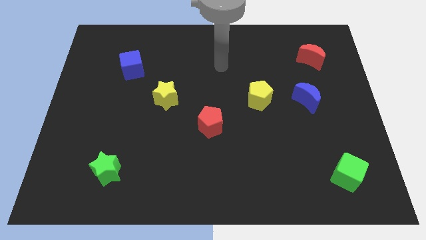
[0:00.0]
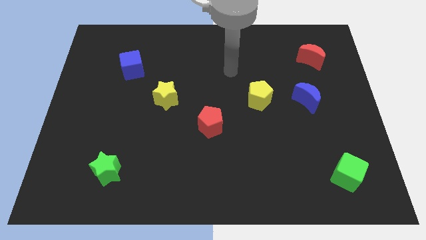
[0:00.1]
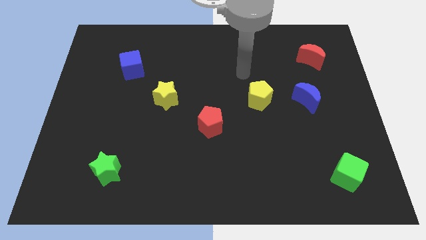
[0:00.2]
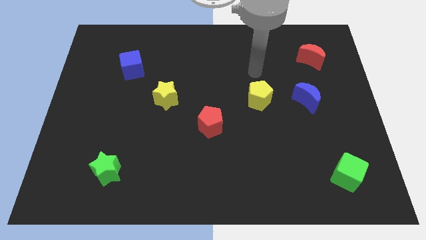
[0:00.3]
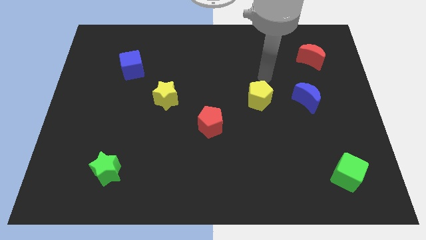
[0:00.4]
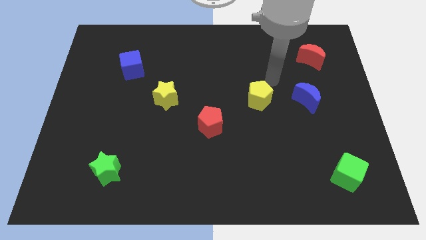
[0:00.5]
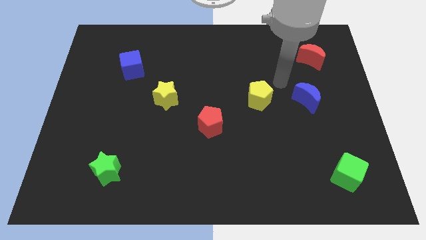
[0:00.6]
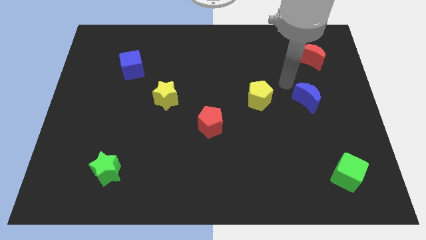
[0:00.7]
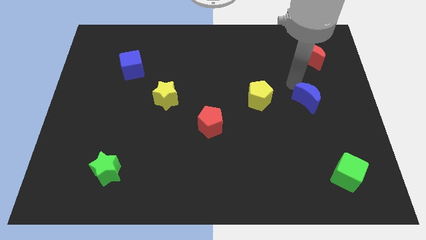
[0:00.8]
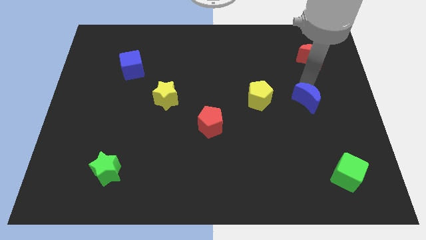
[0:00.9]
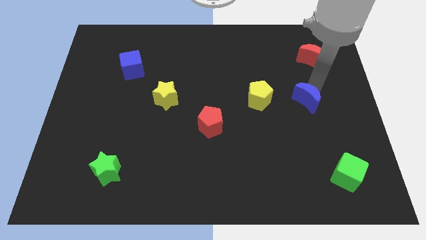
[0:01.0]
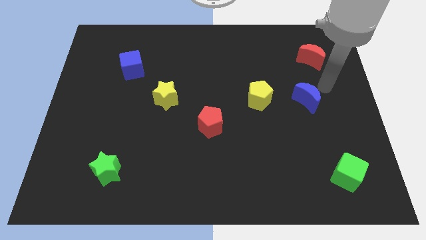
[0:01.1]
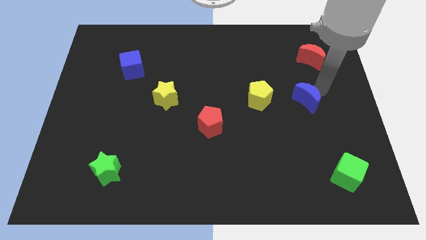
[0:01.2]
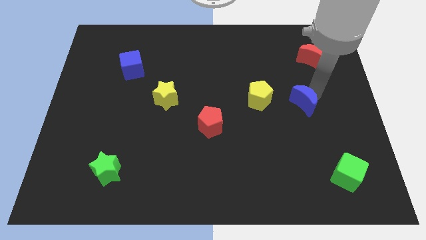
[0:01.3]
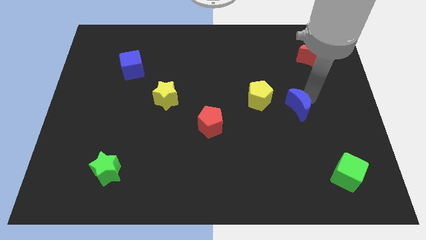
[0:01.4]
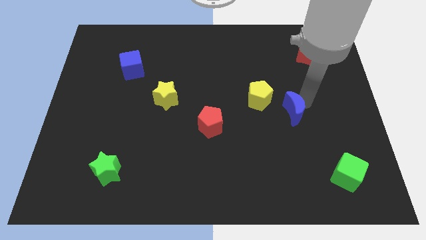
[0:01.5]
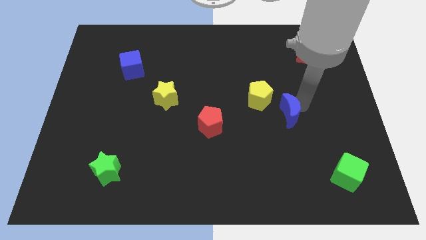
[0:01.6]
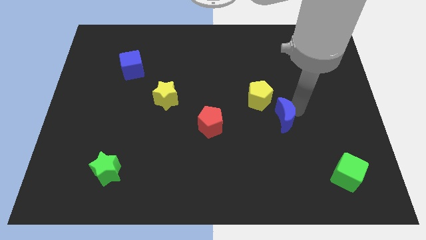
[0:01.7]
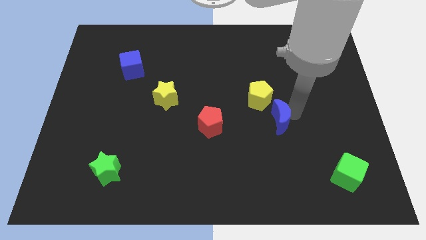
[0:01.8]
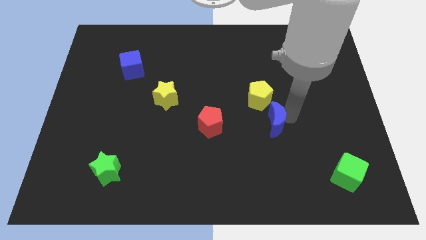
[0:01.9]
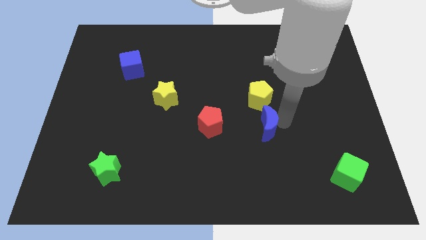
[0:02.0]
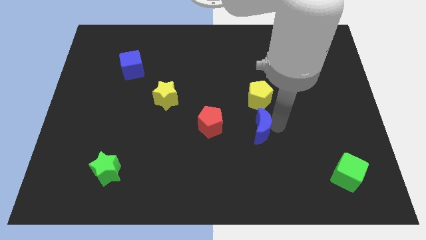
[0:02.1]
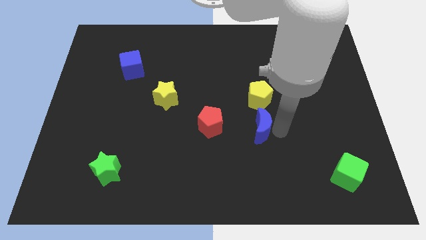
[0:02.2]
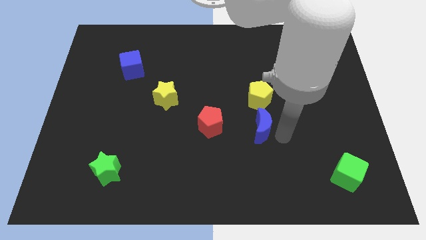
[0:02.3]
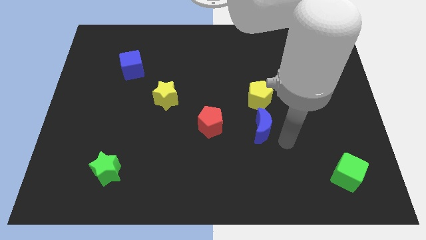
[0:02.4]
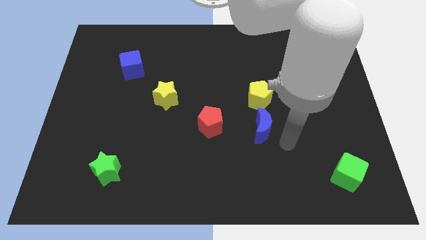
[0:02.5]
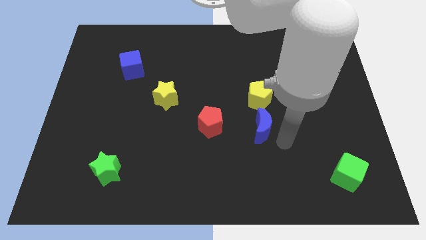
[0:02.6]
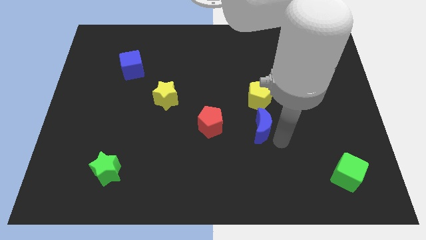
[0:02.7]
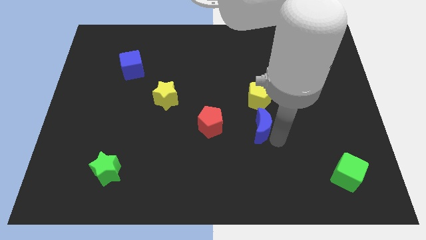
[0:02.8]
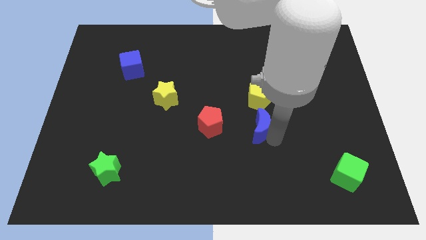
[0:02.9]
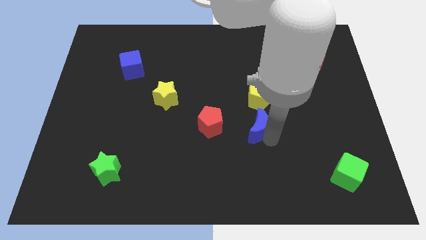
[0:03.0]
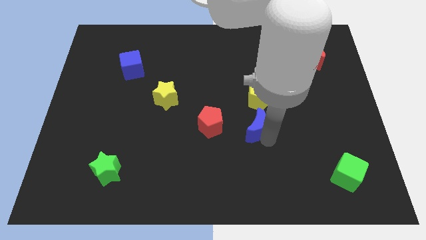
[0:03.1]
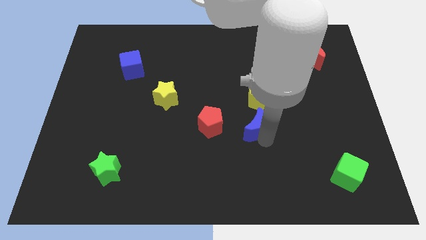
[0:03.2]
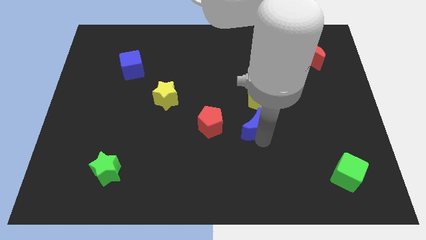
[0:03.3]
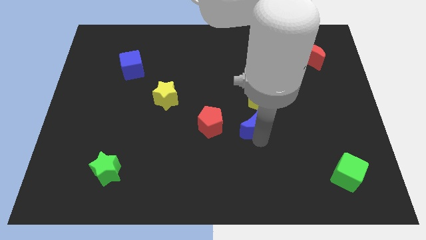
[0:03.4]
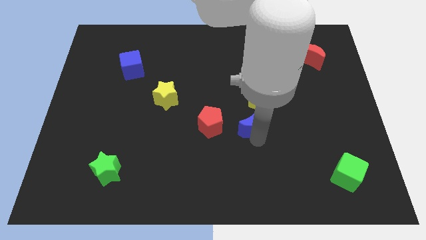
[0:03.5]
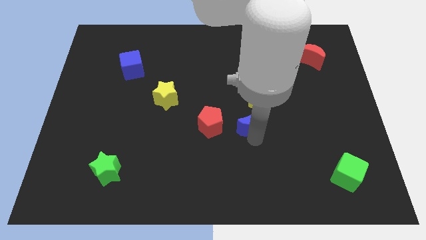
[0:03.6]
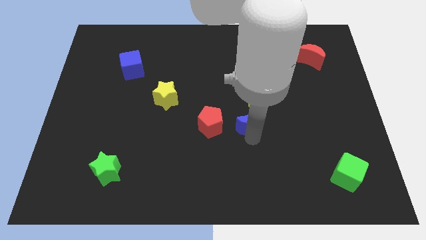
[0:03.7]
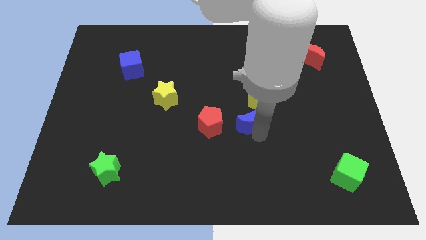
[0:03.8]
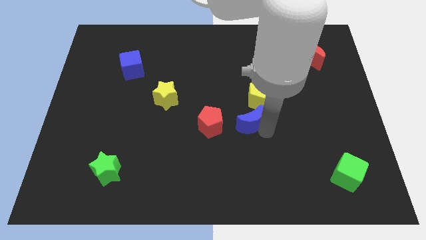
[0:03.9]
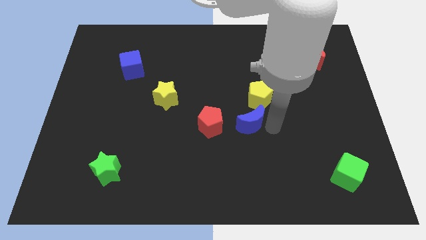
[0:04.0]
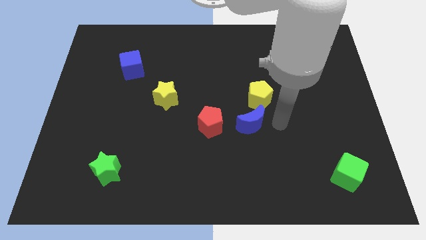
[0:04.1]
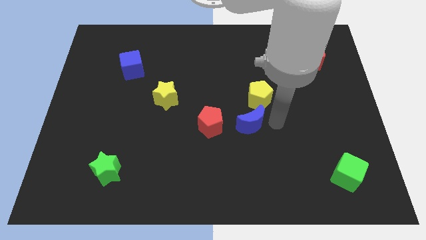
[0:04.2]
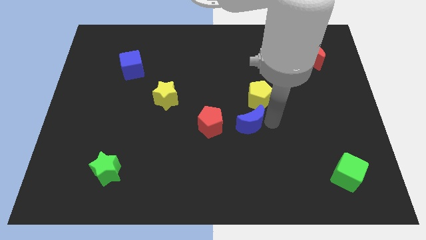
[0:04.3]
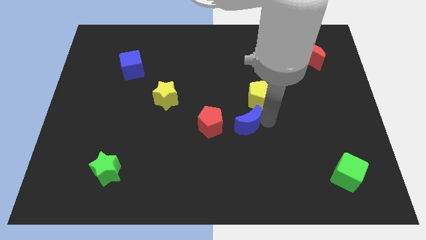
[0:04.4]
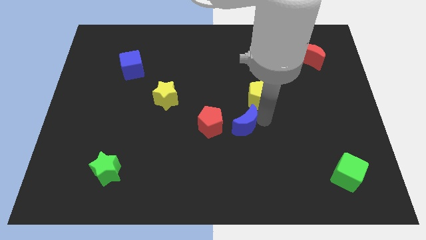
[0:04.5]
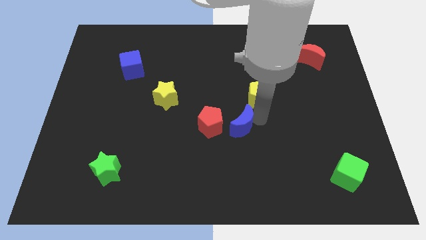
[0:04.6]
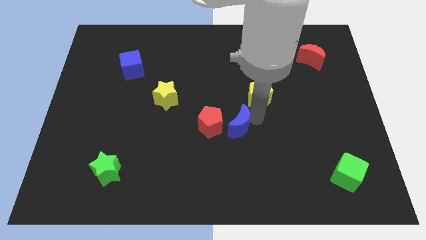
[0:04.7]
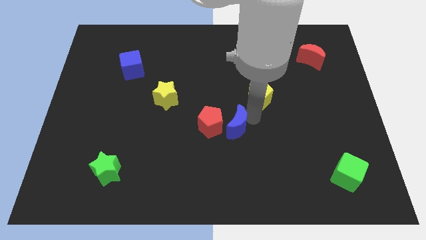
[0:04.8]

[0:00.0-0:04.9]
put the blue moon to the red pentagon

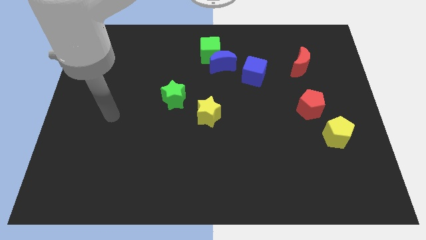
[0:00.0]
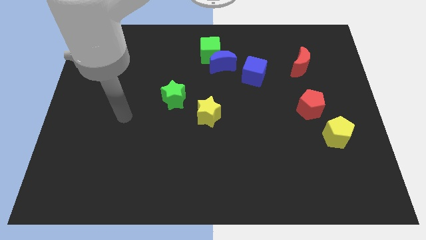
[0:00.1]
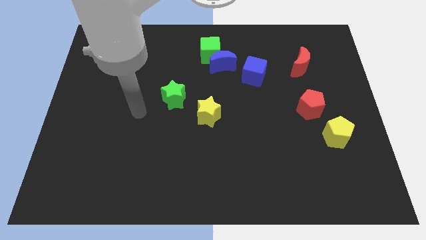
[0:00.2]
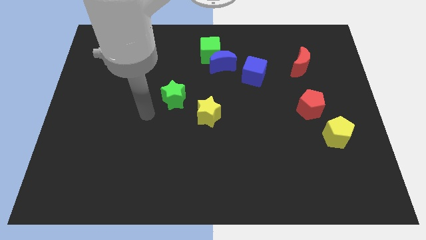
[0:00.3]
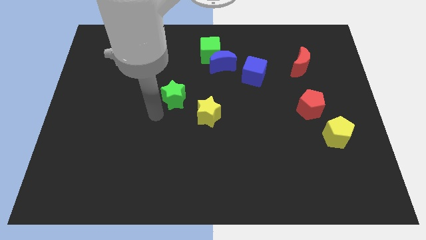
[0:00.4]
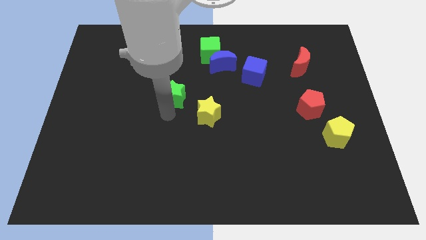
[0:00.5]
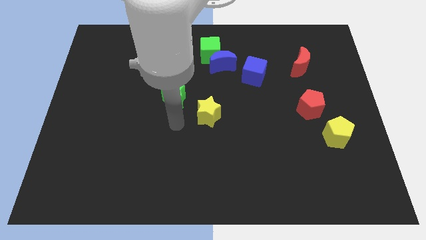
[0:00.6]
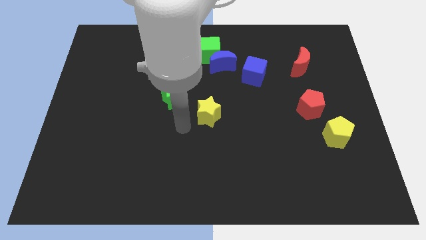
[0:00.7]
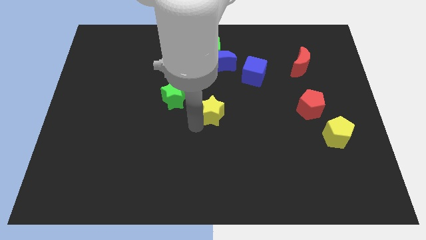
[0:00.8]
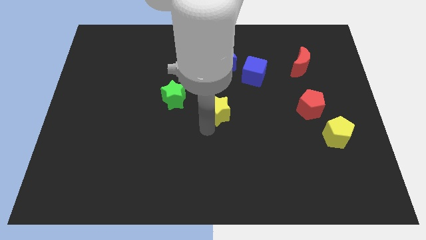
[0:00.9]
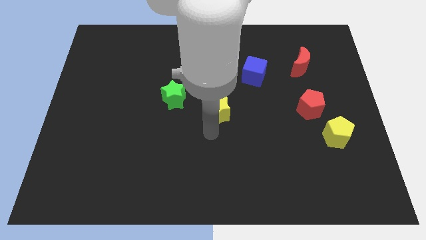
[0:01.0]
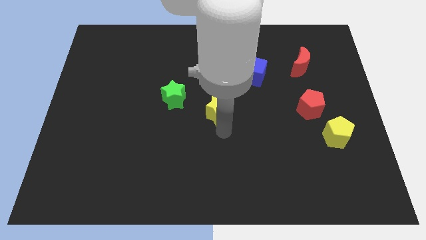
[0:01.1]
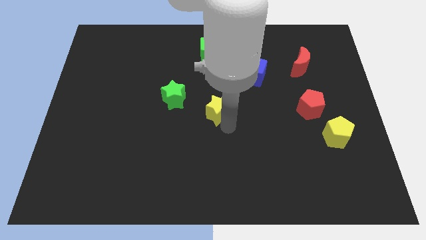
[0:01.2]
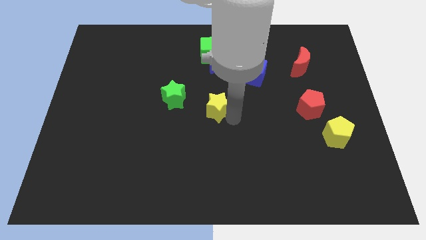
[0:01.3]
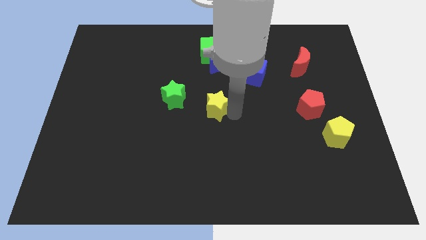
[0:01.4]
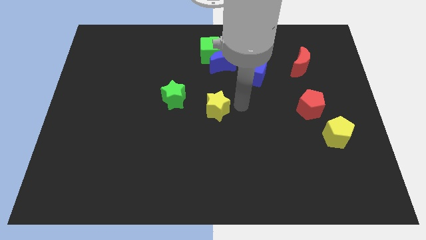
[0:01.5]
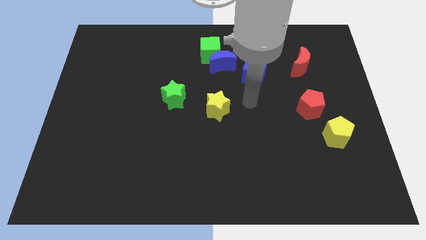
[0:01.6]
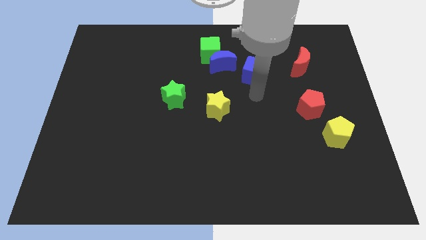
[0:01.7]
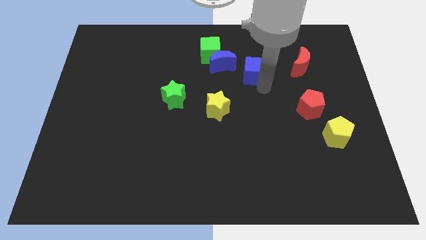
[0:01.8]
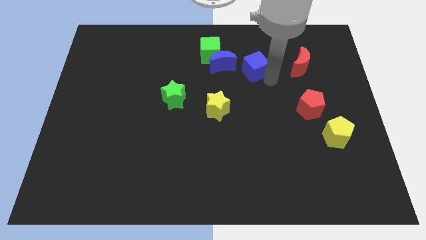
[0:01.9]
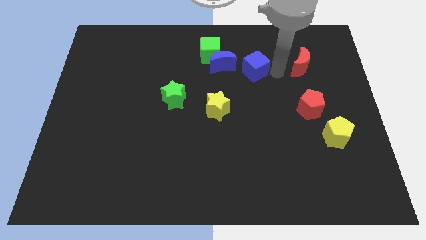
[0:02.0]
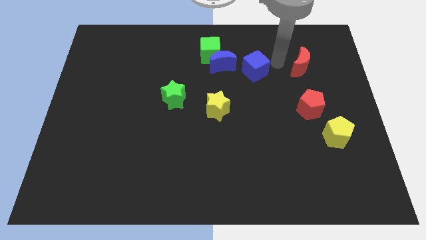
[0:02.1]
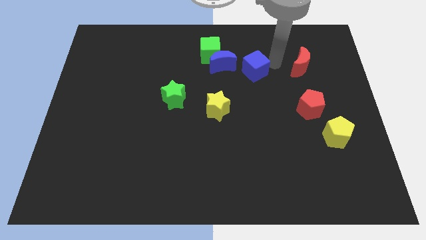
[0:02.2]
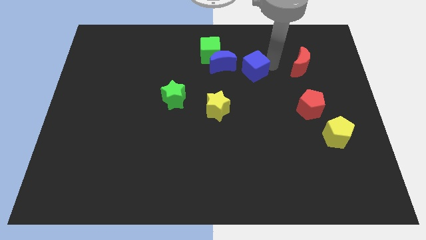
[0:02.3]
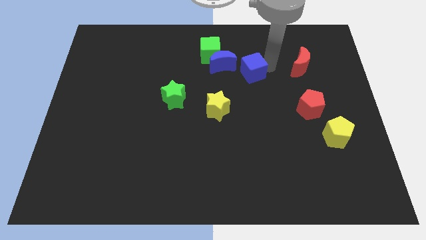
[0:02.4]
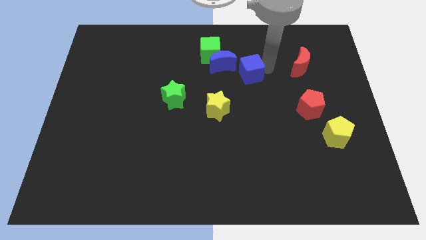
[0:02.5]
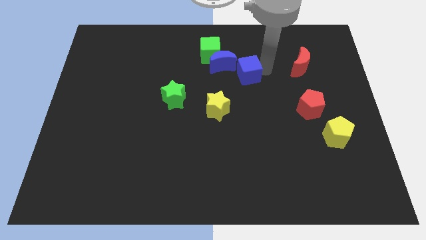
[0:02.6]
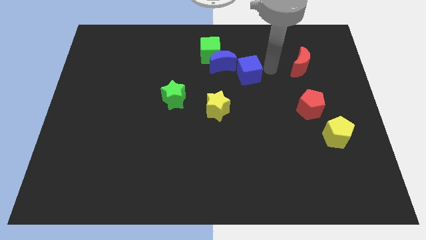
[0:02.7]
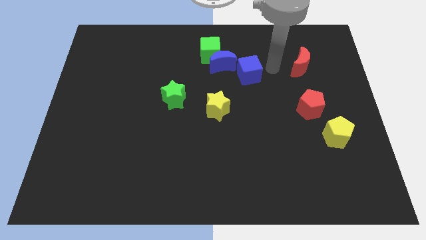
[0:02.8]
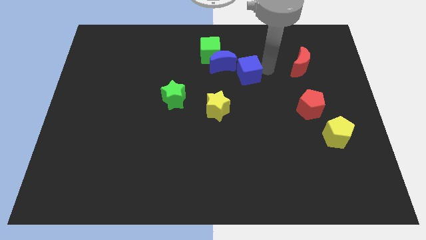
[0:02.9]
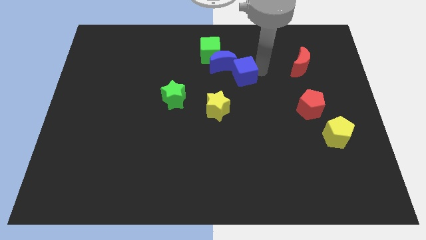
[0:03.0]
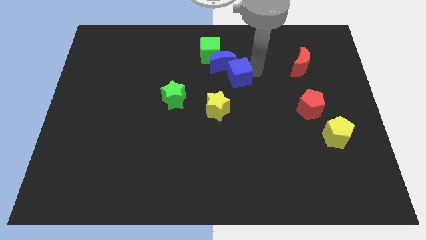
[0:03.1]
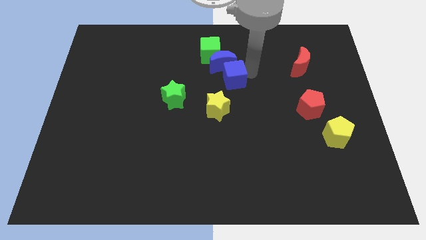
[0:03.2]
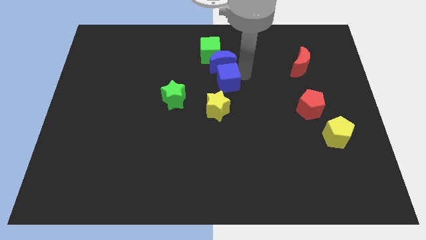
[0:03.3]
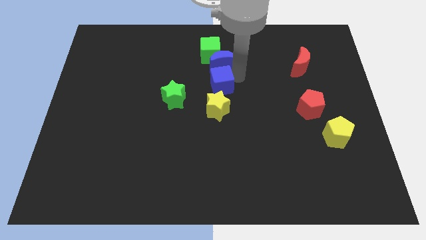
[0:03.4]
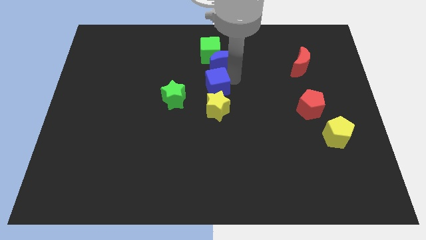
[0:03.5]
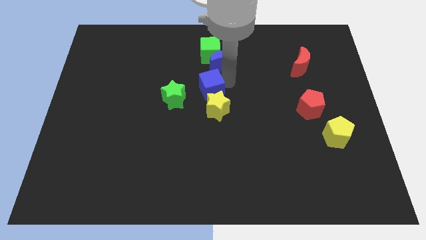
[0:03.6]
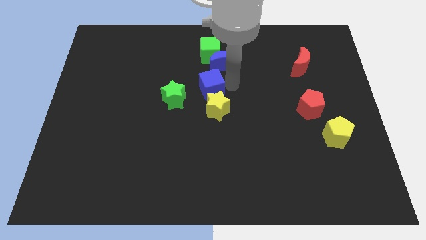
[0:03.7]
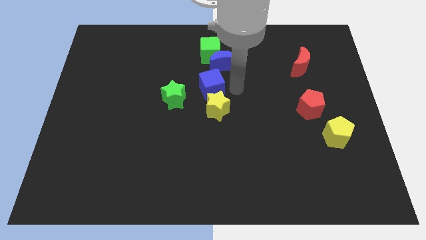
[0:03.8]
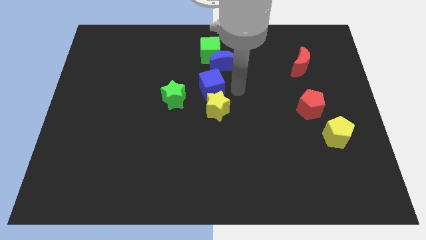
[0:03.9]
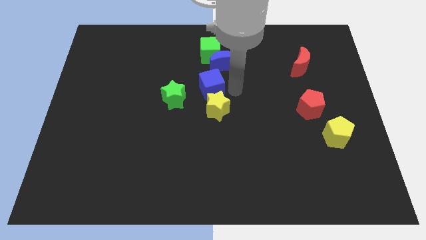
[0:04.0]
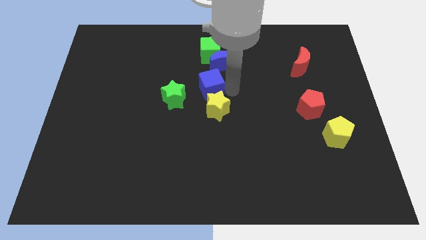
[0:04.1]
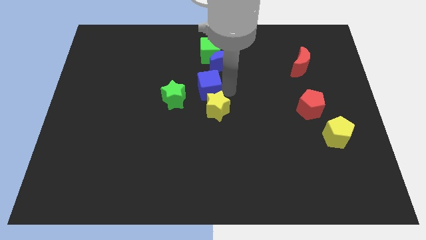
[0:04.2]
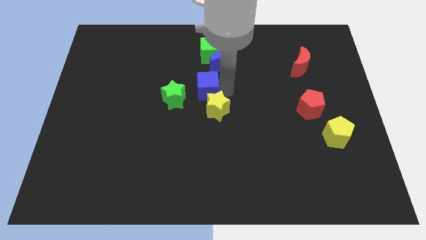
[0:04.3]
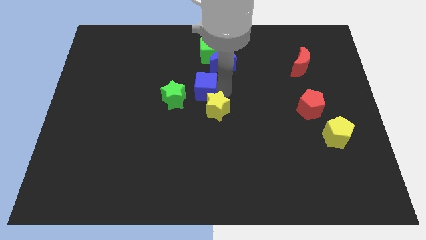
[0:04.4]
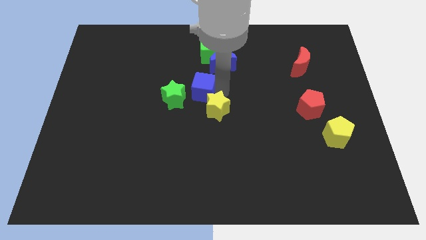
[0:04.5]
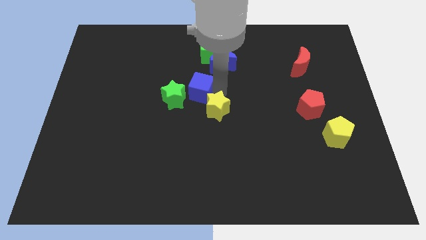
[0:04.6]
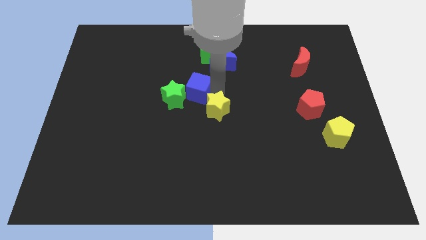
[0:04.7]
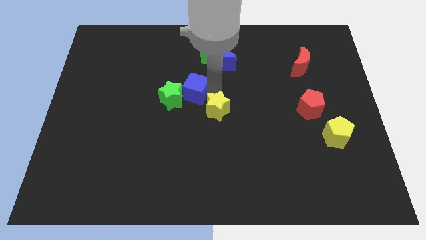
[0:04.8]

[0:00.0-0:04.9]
push the blue cube towards the green star
